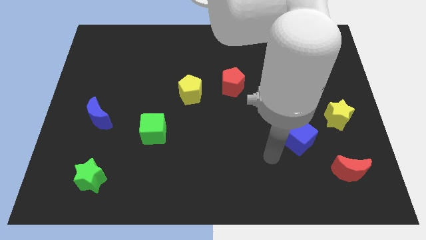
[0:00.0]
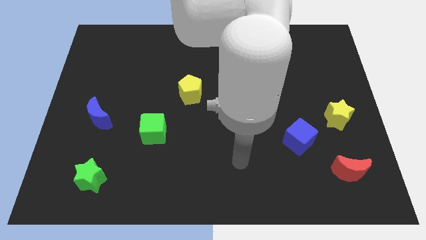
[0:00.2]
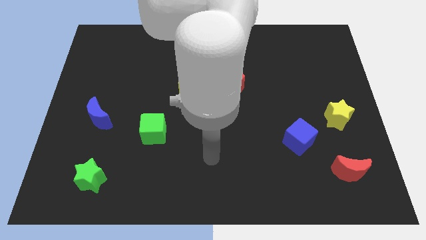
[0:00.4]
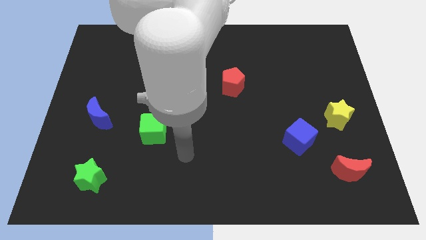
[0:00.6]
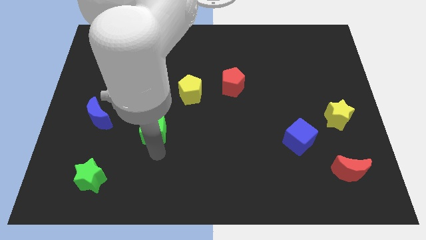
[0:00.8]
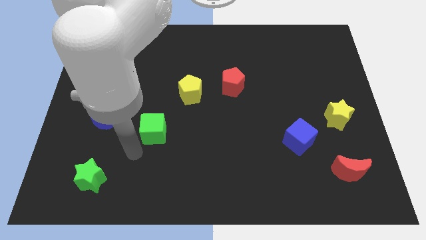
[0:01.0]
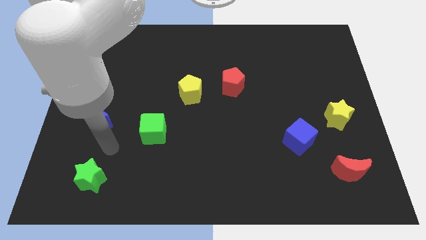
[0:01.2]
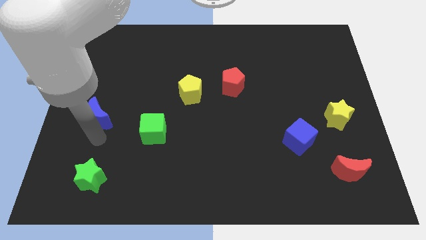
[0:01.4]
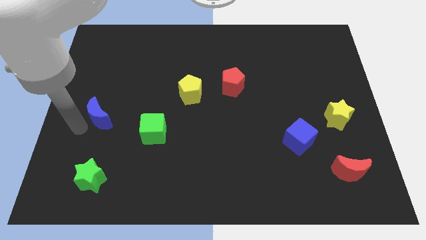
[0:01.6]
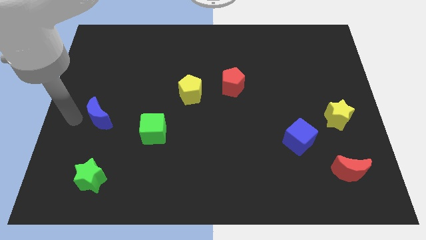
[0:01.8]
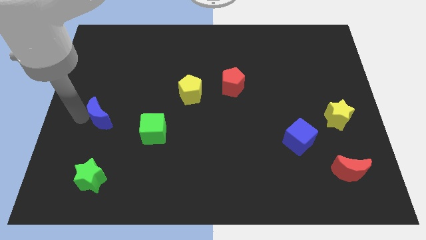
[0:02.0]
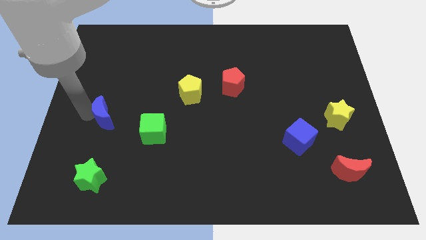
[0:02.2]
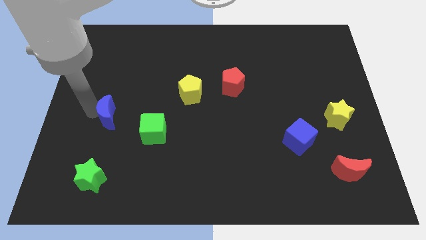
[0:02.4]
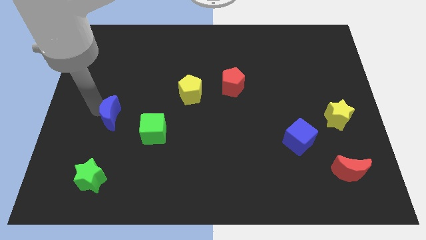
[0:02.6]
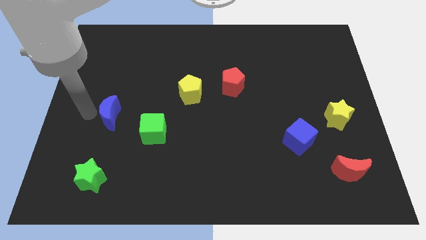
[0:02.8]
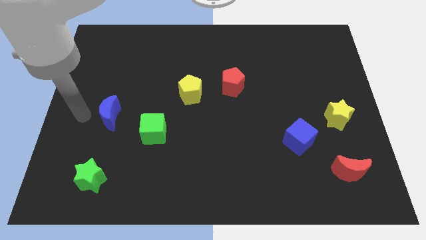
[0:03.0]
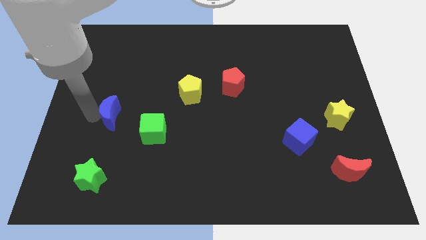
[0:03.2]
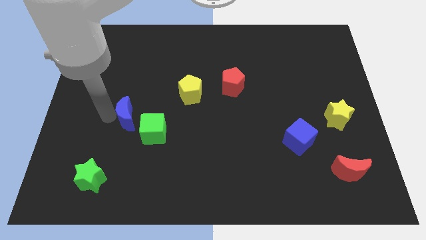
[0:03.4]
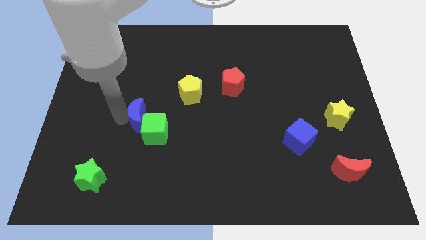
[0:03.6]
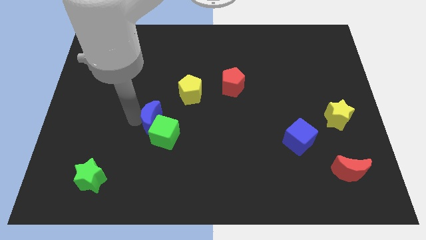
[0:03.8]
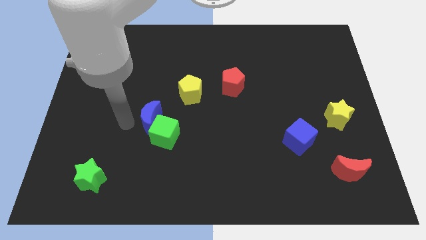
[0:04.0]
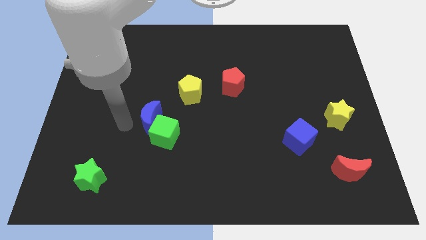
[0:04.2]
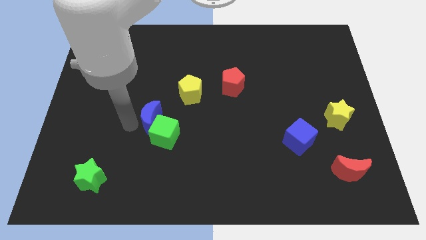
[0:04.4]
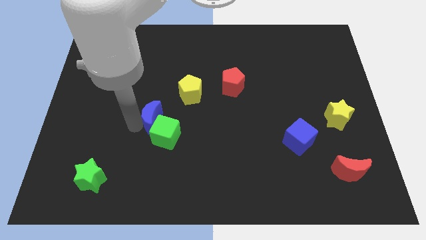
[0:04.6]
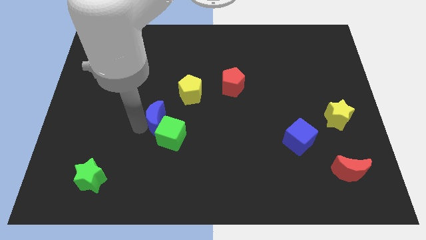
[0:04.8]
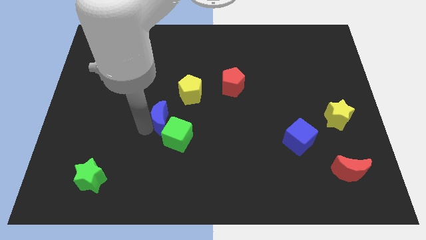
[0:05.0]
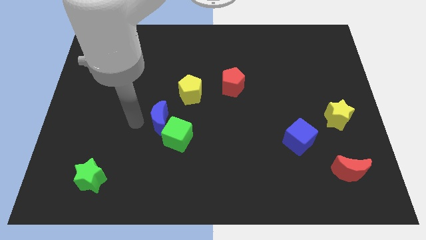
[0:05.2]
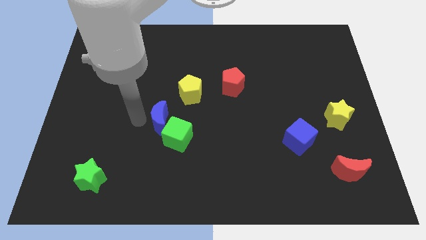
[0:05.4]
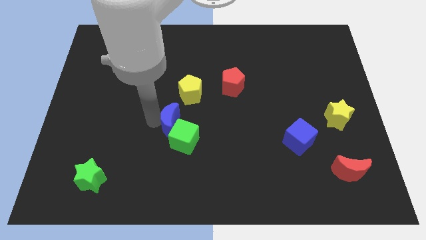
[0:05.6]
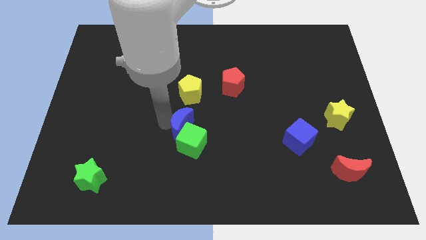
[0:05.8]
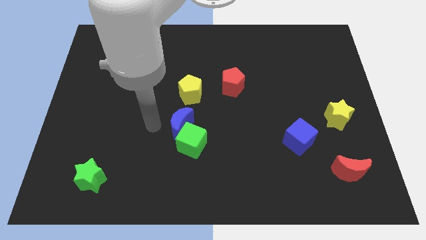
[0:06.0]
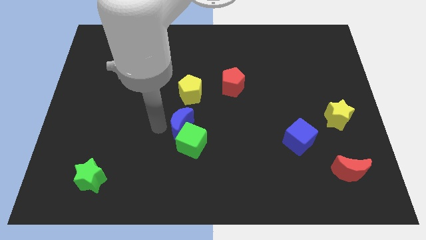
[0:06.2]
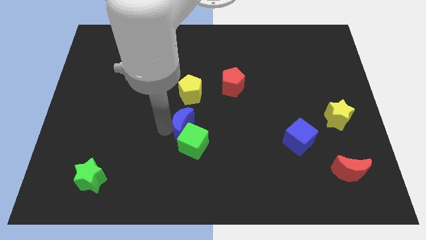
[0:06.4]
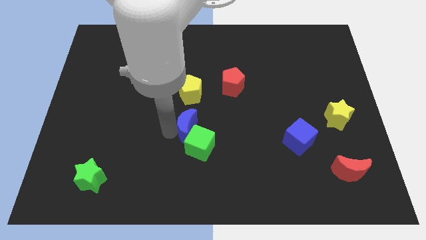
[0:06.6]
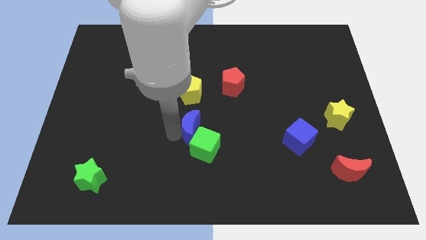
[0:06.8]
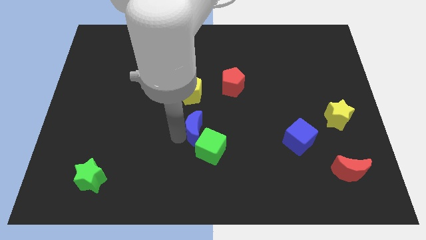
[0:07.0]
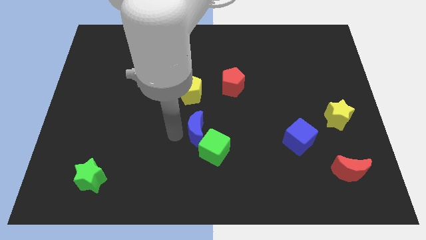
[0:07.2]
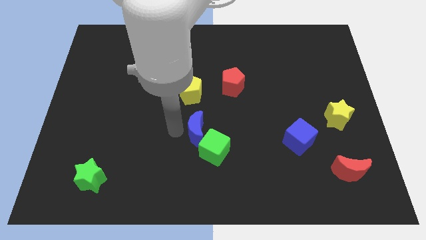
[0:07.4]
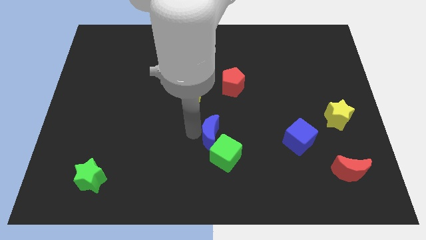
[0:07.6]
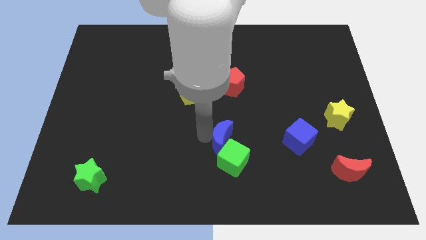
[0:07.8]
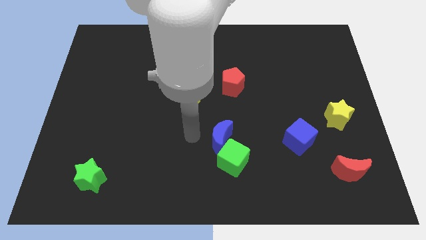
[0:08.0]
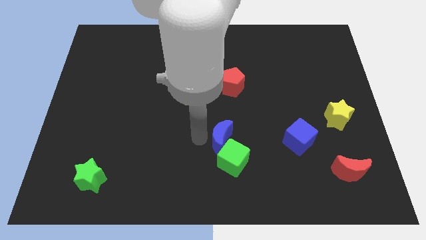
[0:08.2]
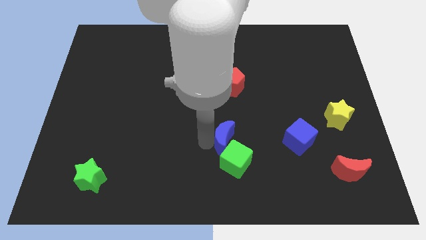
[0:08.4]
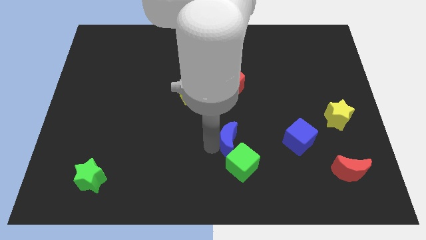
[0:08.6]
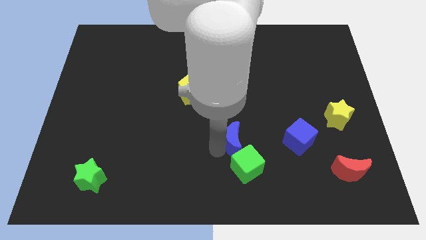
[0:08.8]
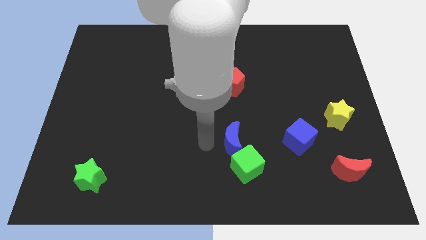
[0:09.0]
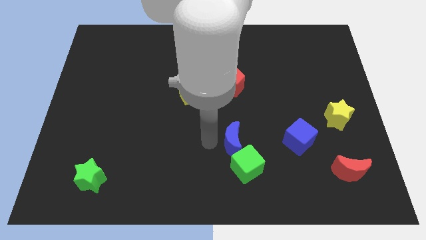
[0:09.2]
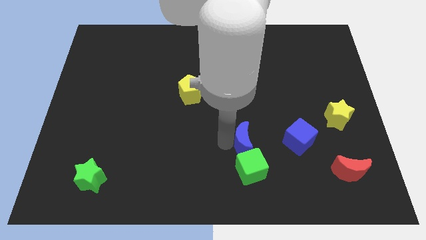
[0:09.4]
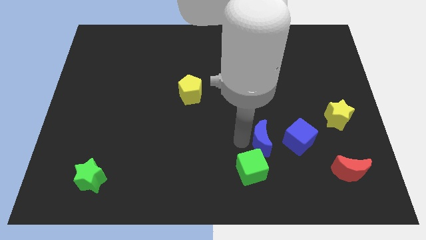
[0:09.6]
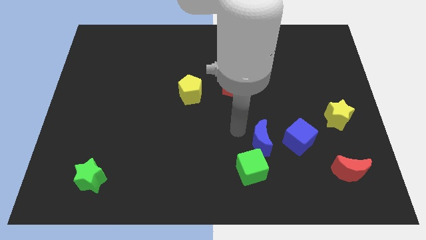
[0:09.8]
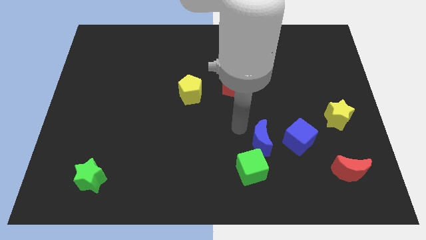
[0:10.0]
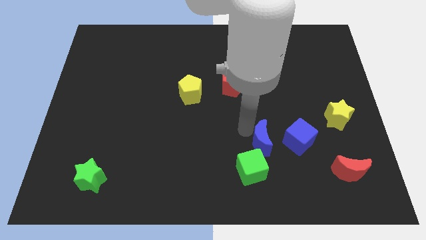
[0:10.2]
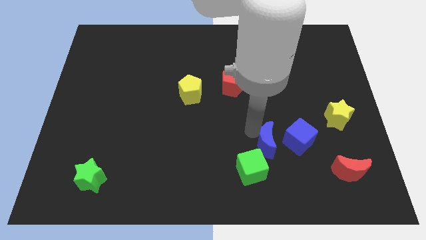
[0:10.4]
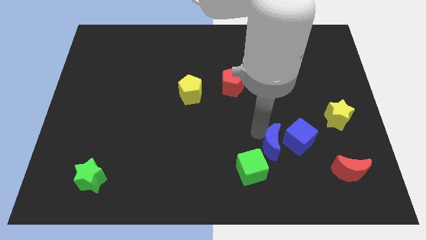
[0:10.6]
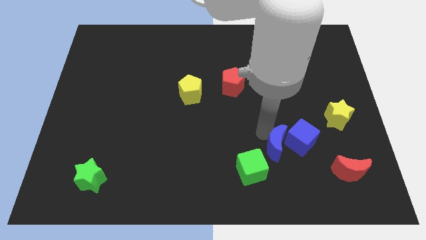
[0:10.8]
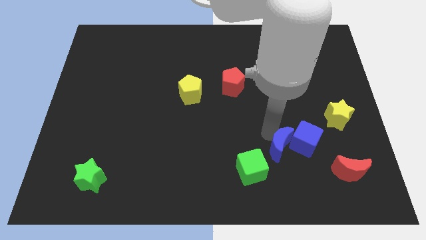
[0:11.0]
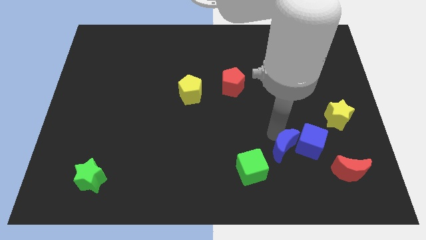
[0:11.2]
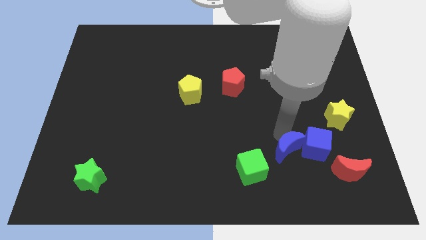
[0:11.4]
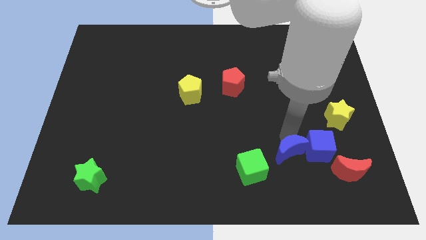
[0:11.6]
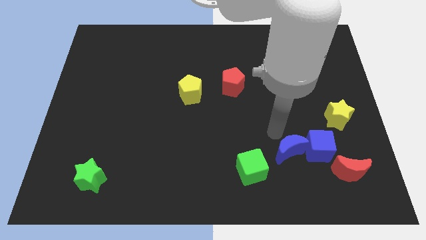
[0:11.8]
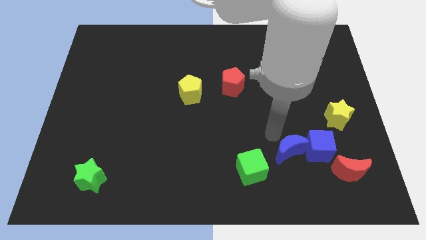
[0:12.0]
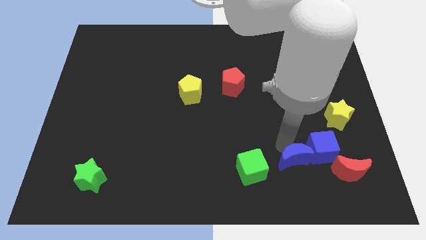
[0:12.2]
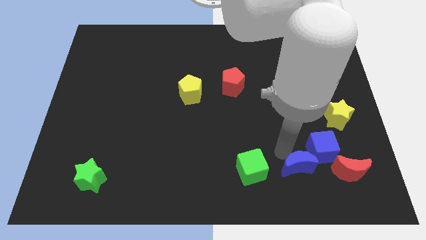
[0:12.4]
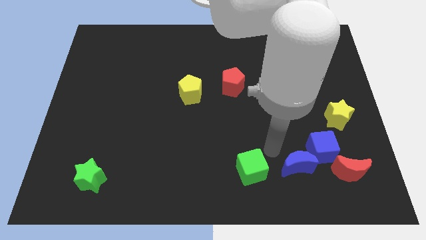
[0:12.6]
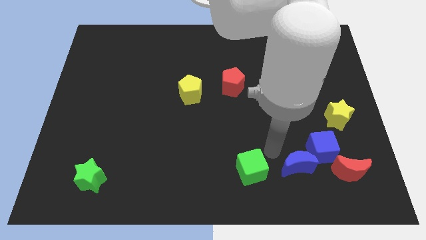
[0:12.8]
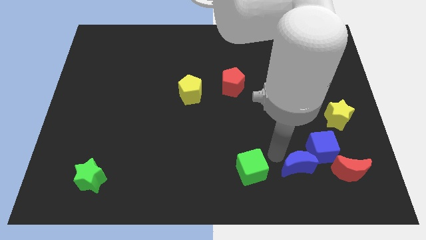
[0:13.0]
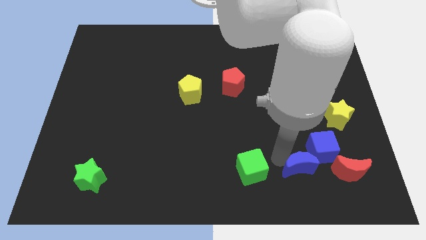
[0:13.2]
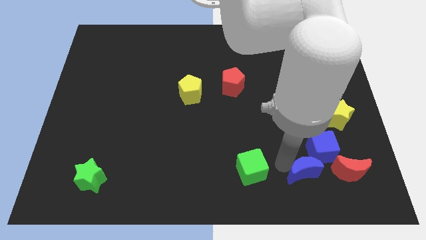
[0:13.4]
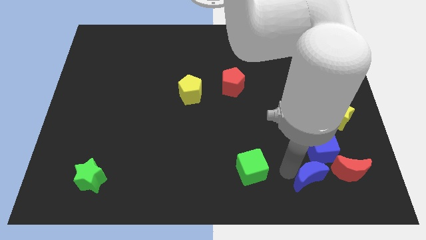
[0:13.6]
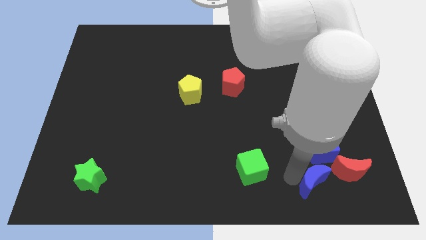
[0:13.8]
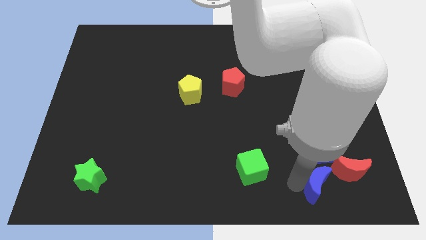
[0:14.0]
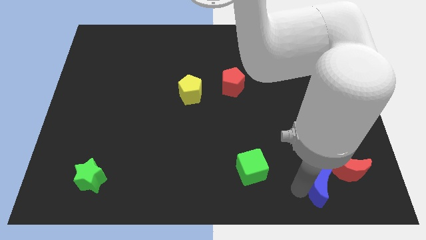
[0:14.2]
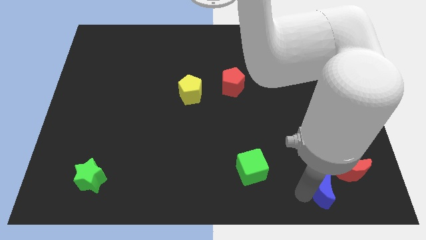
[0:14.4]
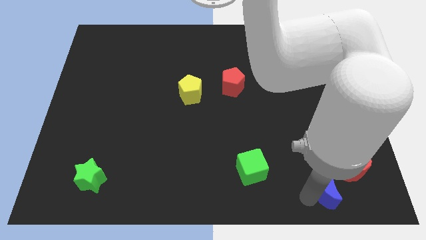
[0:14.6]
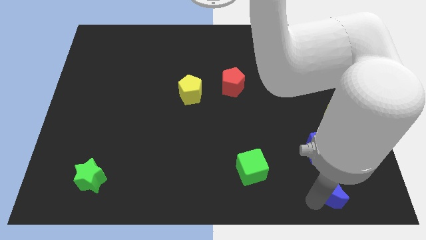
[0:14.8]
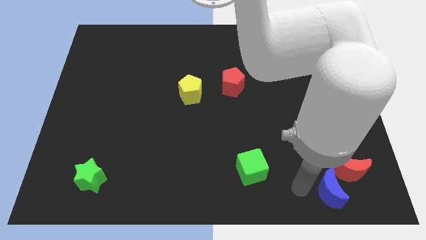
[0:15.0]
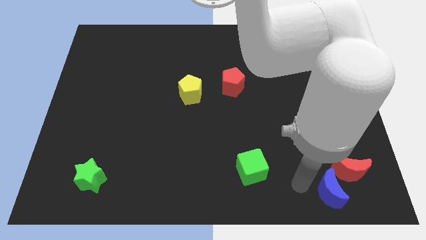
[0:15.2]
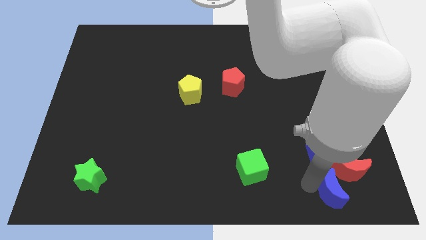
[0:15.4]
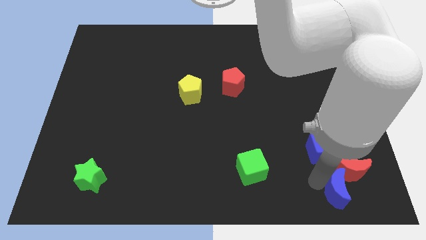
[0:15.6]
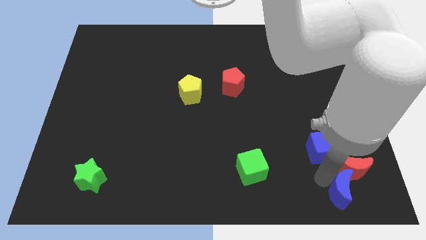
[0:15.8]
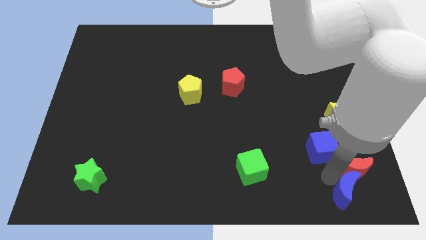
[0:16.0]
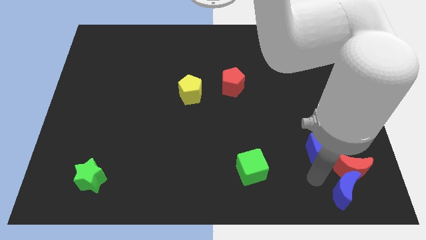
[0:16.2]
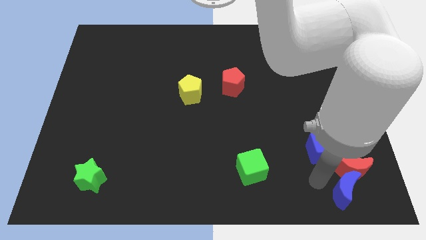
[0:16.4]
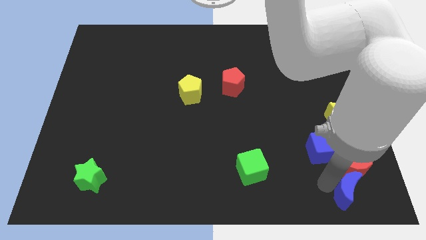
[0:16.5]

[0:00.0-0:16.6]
slide the blue moon to the bottom right
